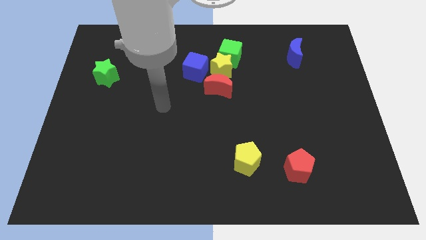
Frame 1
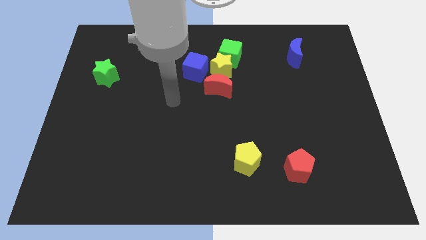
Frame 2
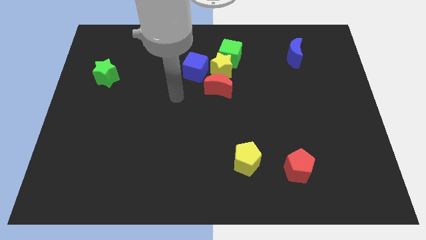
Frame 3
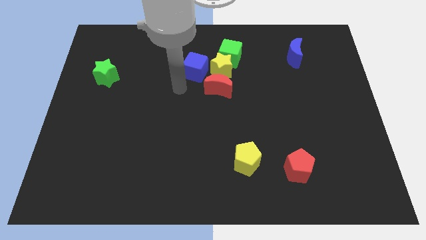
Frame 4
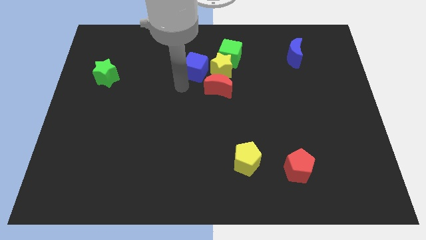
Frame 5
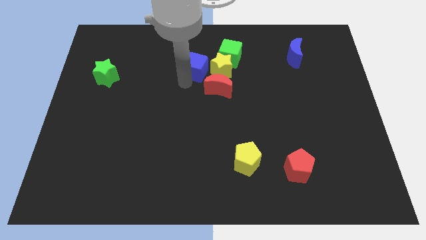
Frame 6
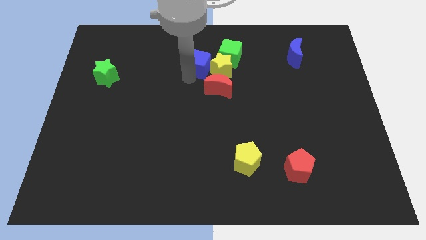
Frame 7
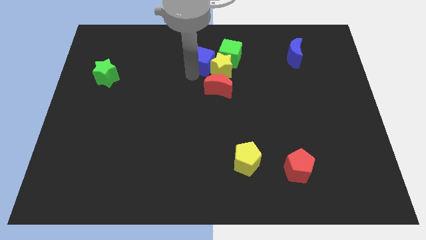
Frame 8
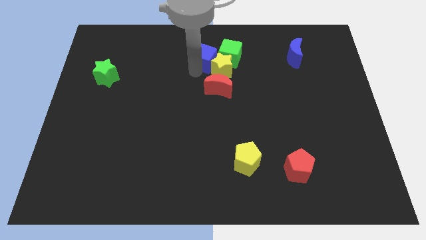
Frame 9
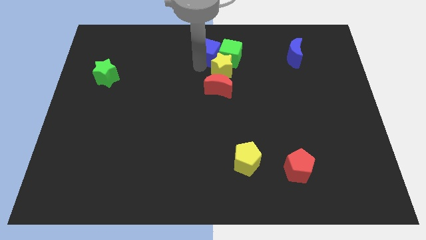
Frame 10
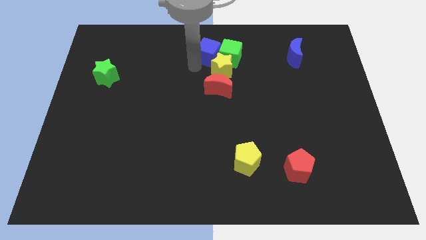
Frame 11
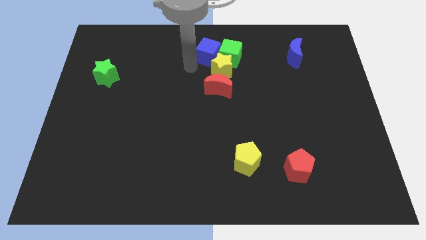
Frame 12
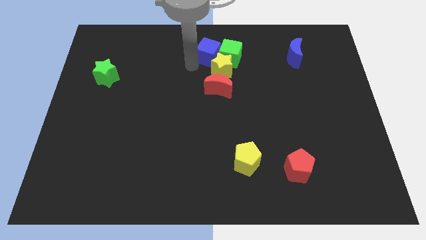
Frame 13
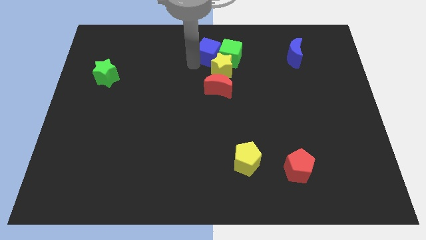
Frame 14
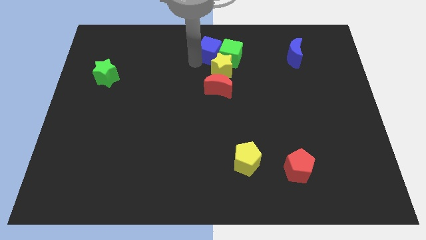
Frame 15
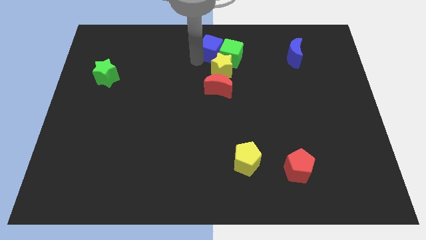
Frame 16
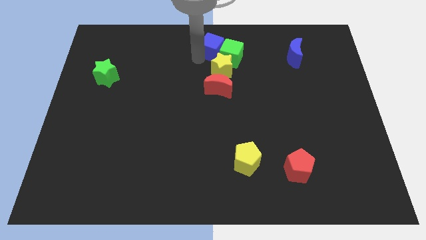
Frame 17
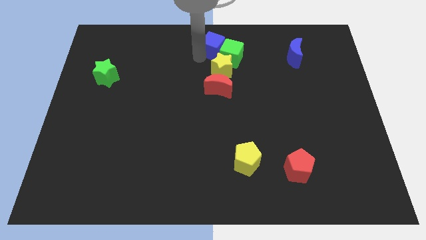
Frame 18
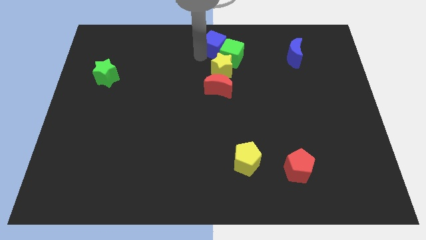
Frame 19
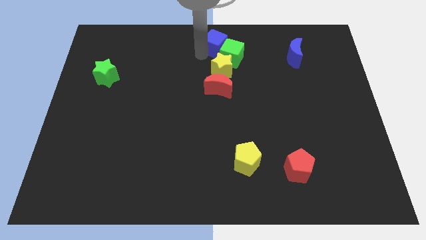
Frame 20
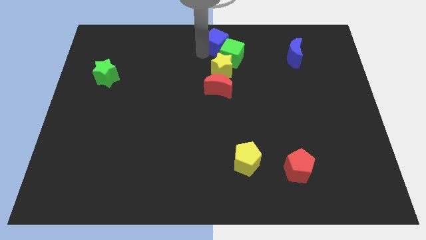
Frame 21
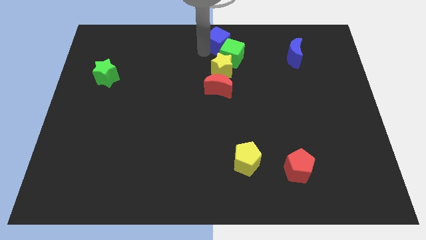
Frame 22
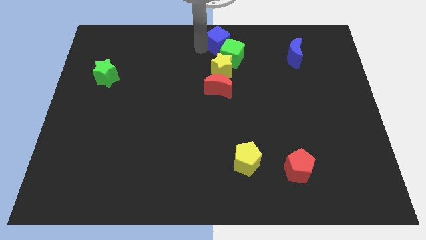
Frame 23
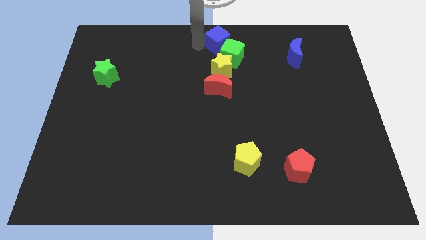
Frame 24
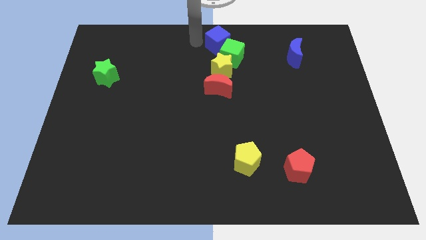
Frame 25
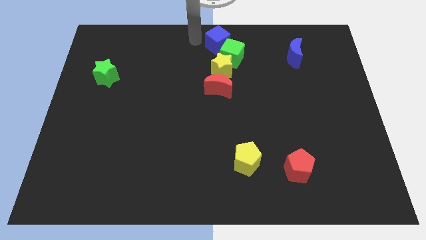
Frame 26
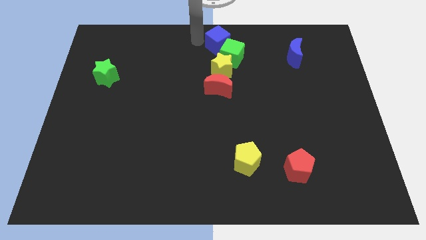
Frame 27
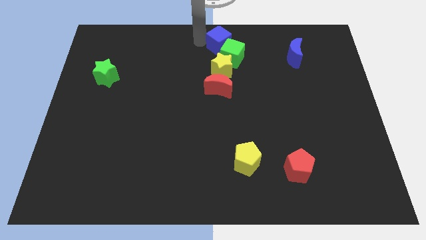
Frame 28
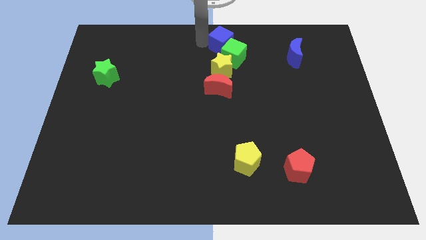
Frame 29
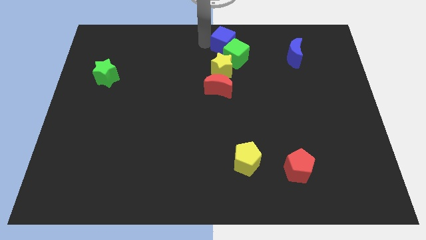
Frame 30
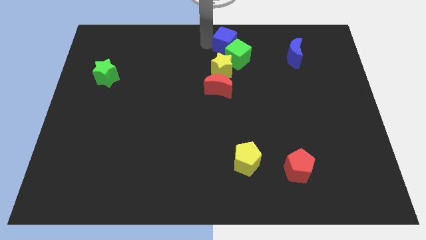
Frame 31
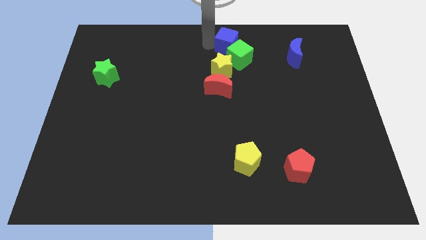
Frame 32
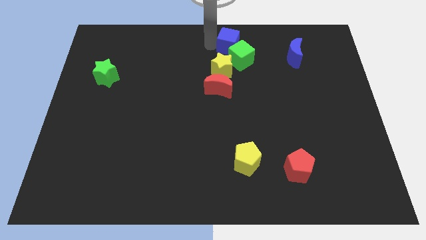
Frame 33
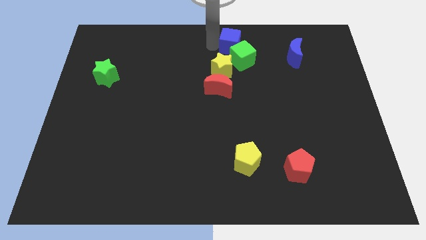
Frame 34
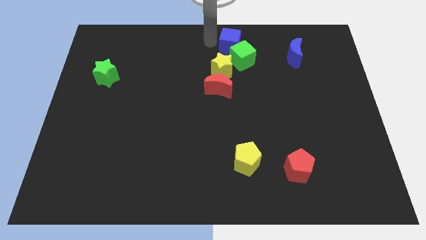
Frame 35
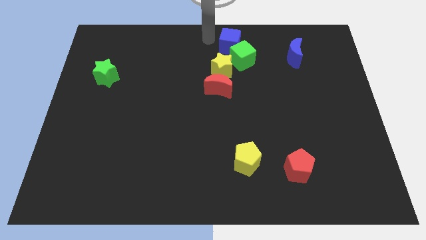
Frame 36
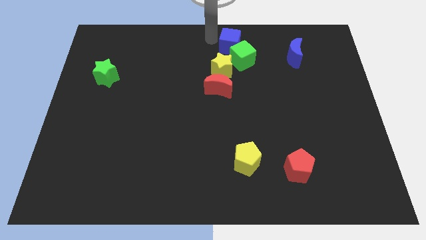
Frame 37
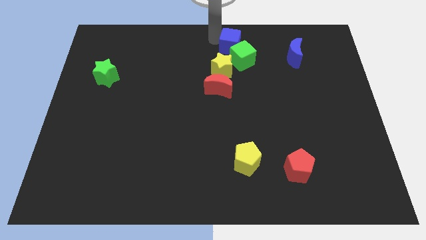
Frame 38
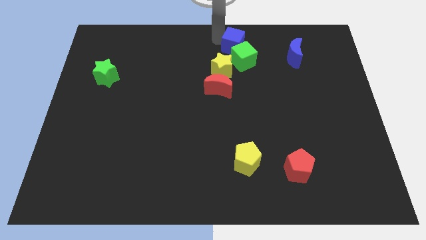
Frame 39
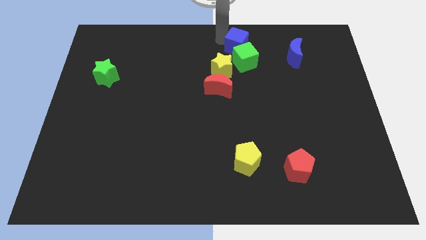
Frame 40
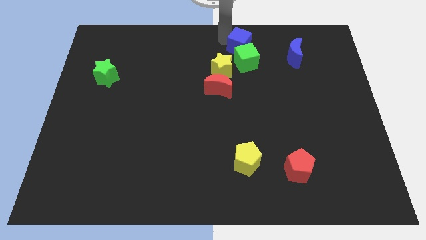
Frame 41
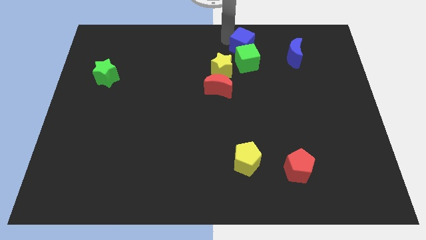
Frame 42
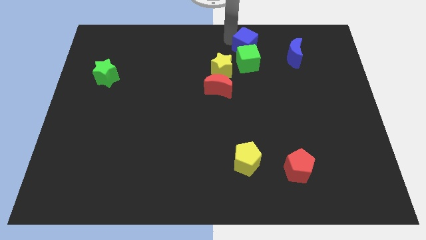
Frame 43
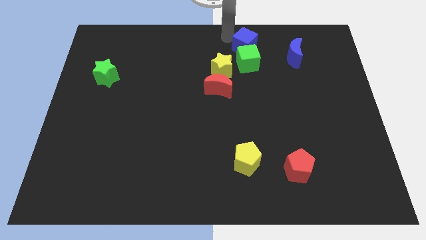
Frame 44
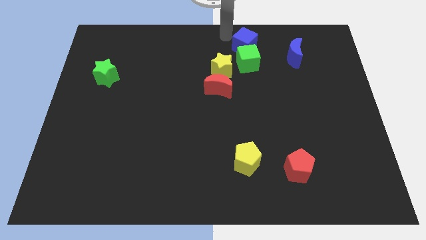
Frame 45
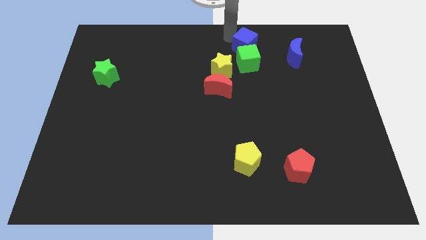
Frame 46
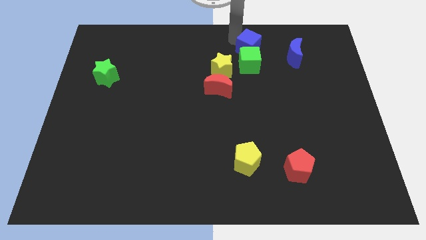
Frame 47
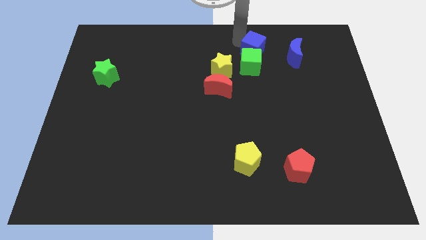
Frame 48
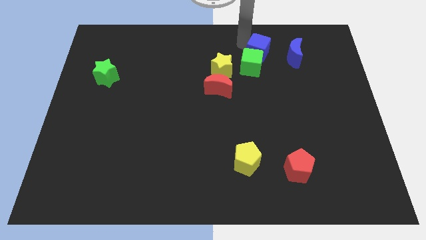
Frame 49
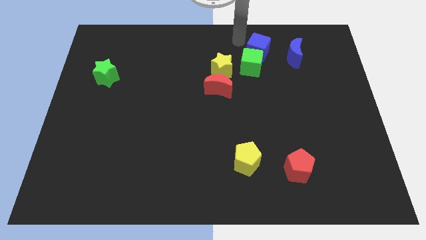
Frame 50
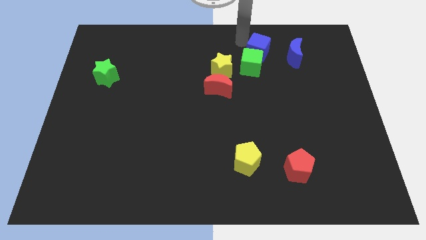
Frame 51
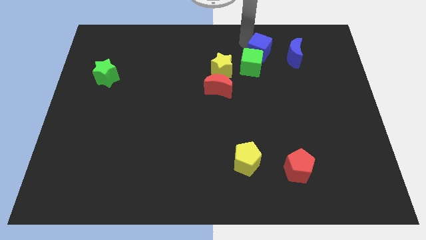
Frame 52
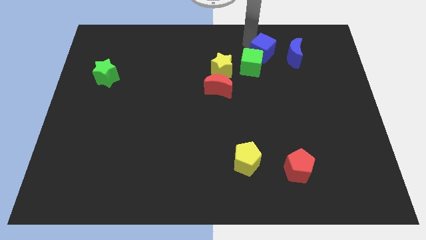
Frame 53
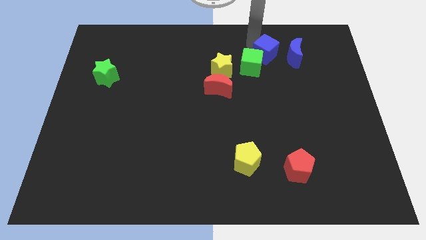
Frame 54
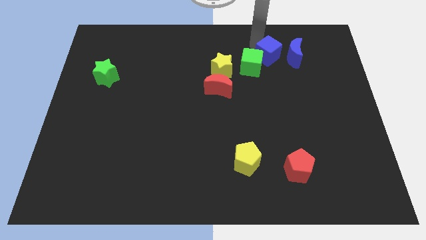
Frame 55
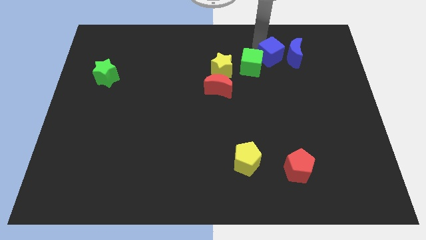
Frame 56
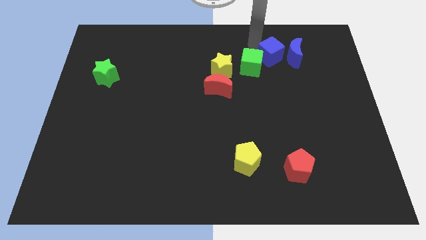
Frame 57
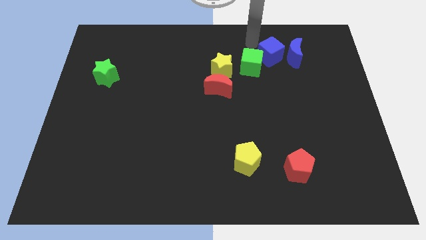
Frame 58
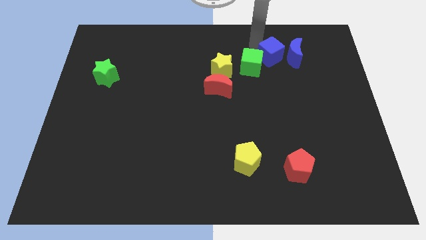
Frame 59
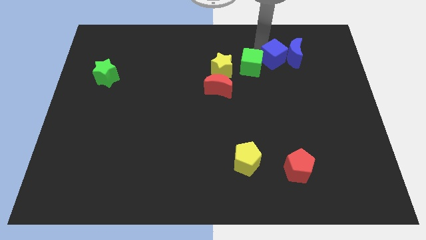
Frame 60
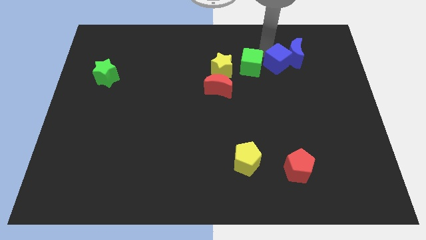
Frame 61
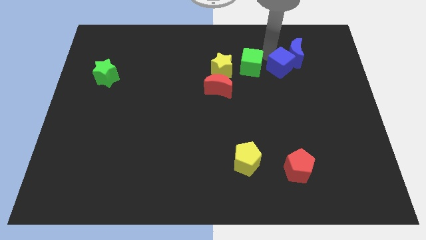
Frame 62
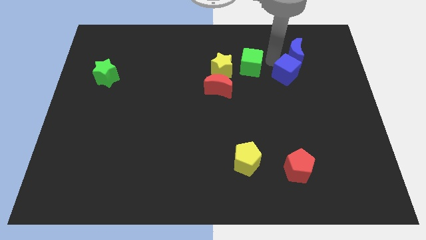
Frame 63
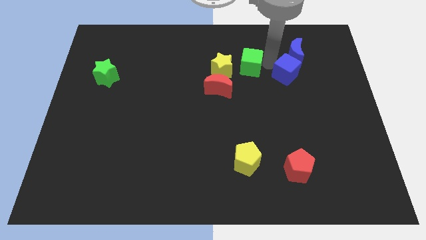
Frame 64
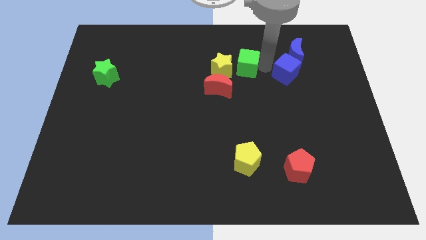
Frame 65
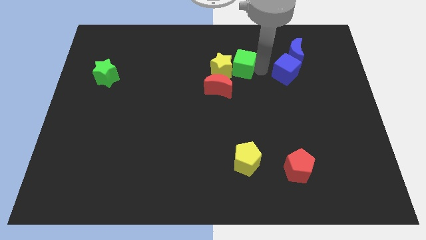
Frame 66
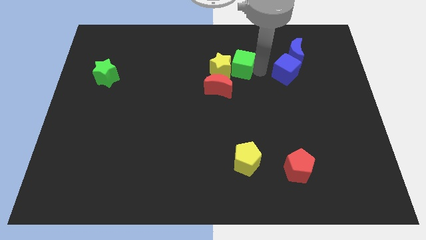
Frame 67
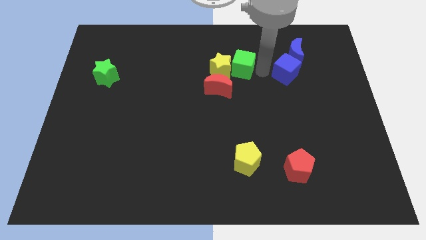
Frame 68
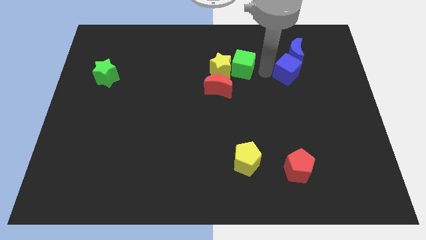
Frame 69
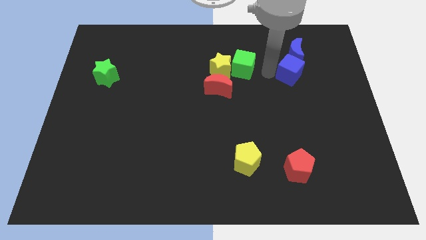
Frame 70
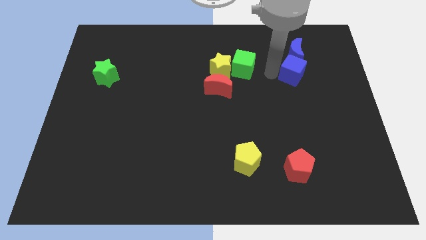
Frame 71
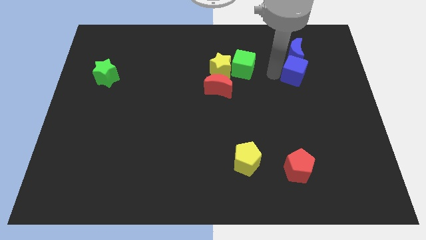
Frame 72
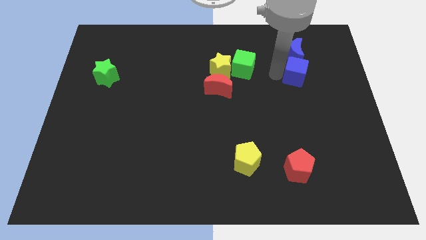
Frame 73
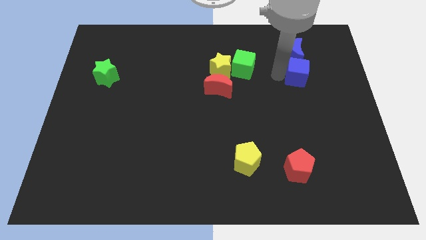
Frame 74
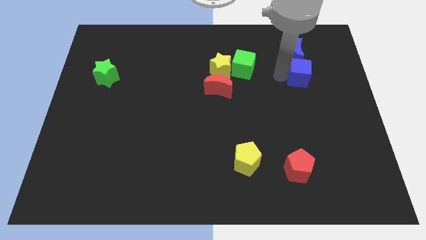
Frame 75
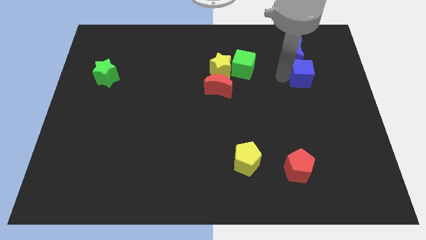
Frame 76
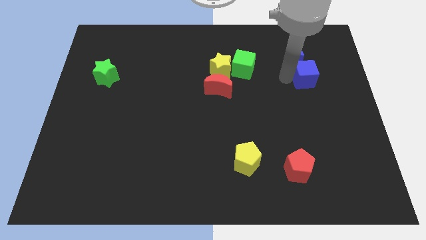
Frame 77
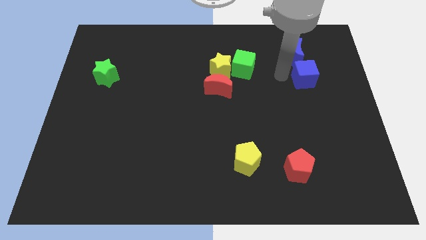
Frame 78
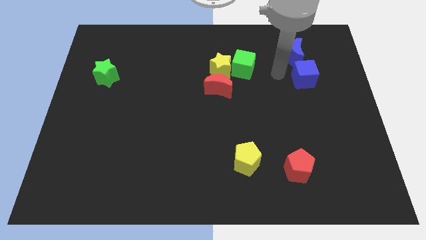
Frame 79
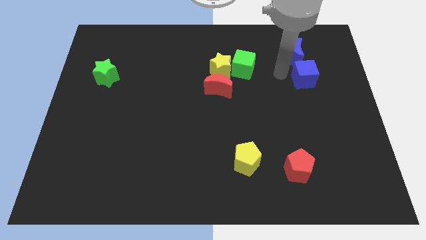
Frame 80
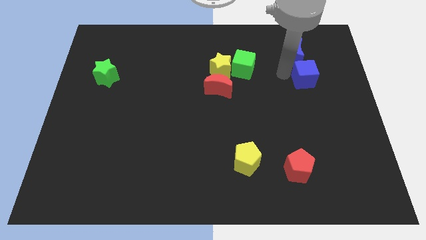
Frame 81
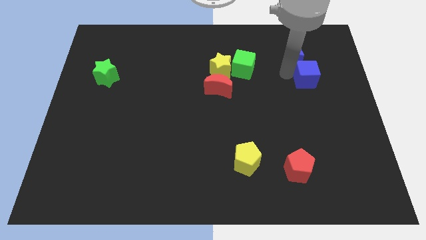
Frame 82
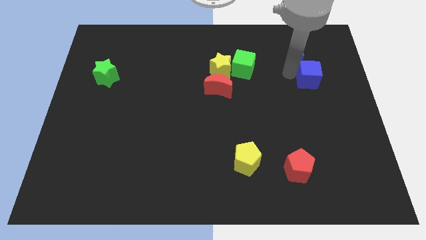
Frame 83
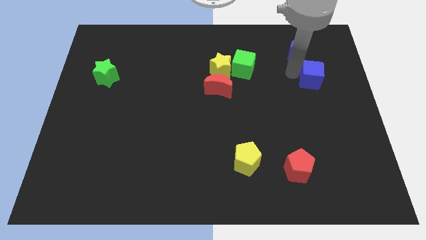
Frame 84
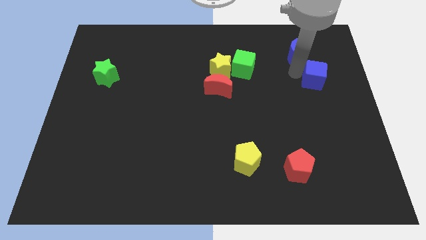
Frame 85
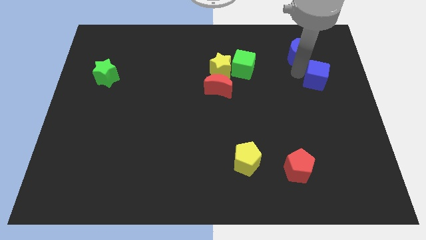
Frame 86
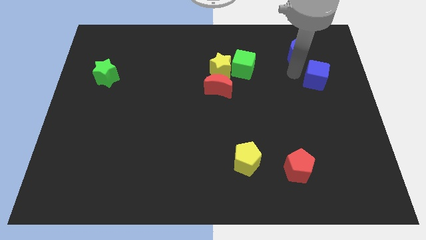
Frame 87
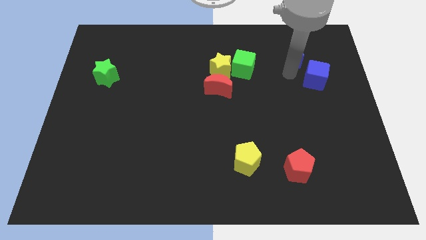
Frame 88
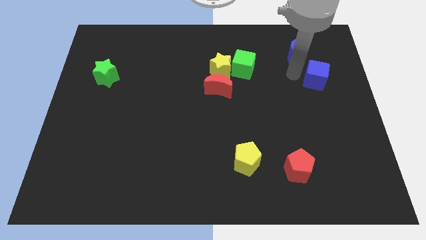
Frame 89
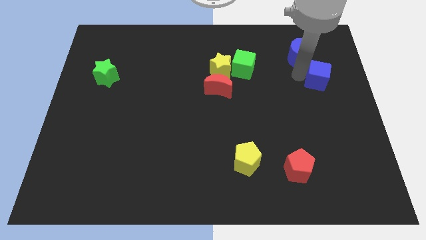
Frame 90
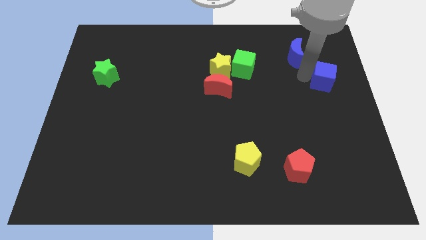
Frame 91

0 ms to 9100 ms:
slide the blue cube to the center right
